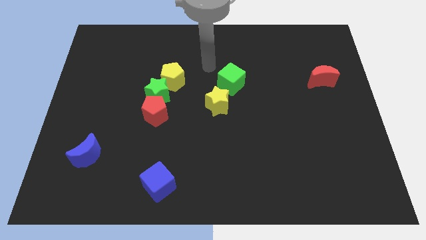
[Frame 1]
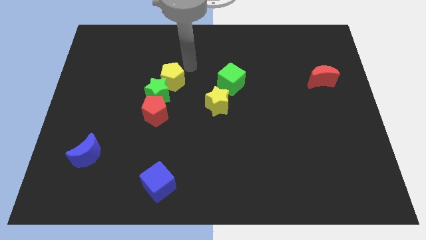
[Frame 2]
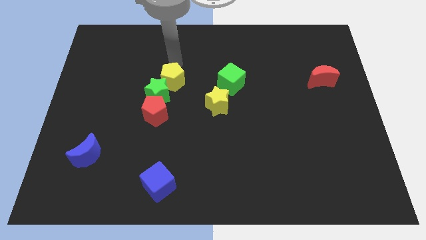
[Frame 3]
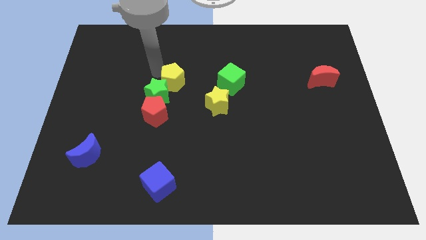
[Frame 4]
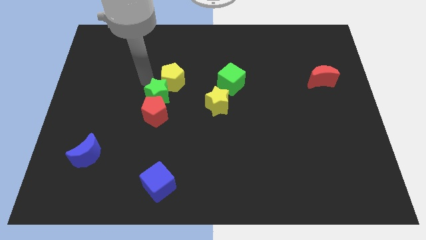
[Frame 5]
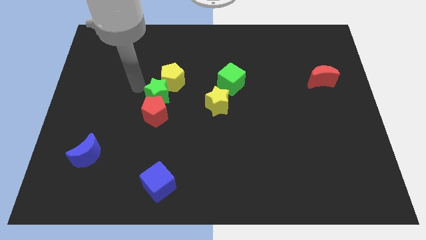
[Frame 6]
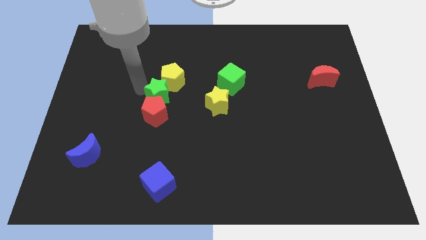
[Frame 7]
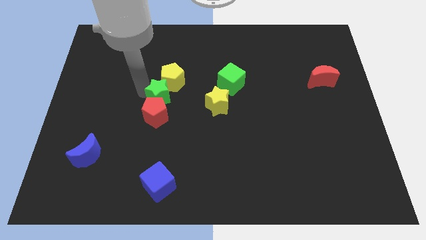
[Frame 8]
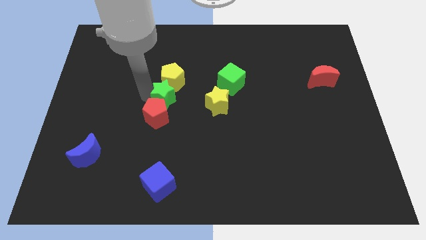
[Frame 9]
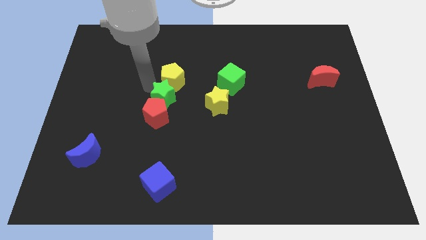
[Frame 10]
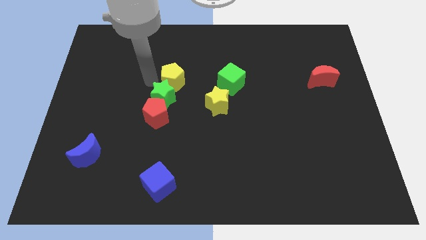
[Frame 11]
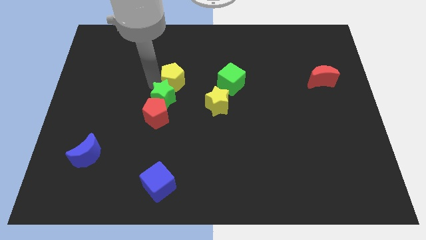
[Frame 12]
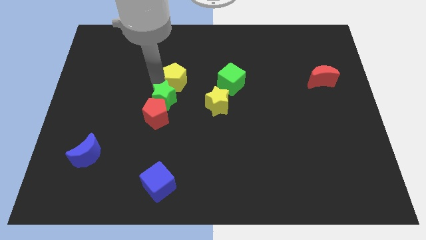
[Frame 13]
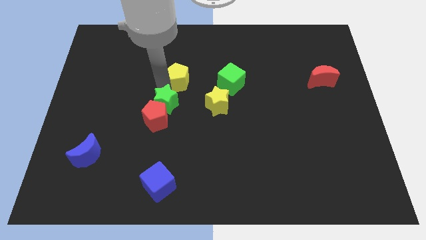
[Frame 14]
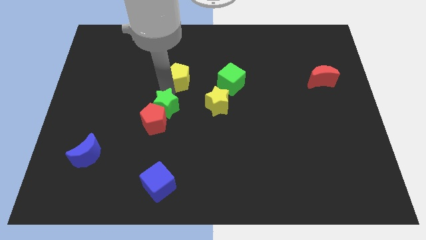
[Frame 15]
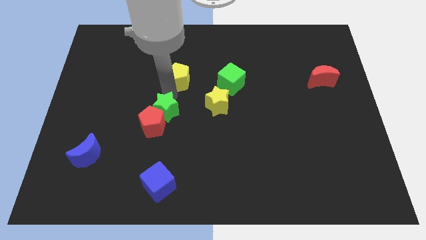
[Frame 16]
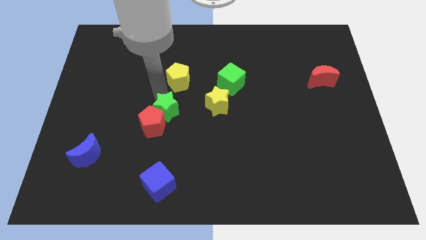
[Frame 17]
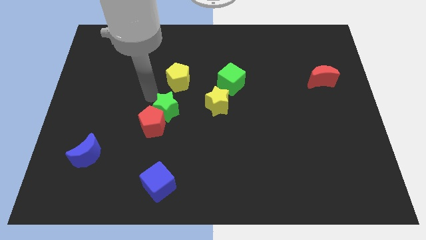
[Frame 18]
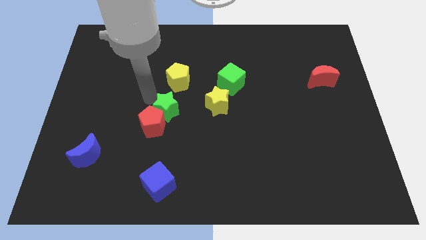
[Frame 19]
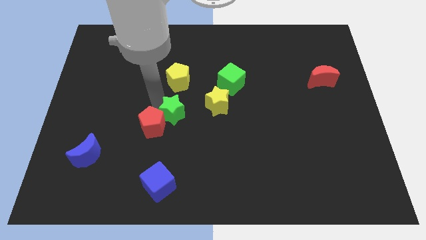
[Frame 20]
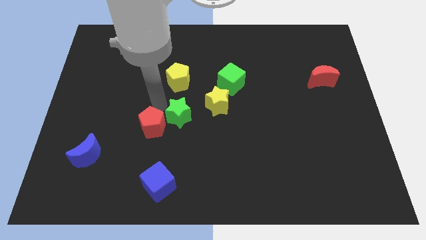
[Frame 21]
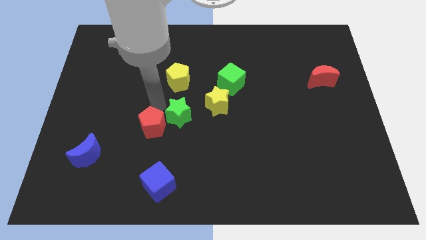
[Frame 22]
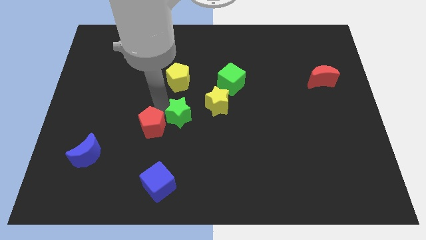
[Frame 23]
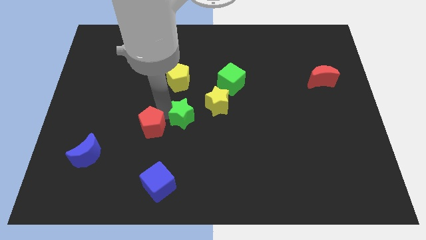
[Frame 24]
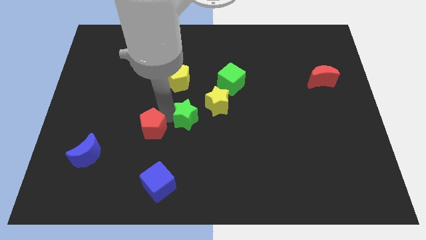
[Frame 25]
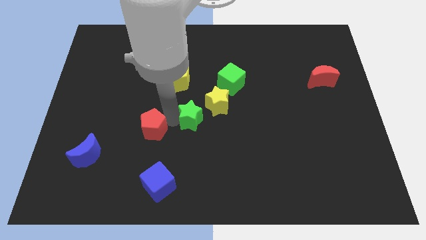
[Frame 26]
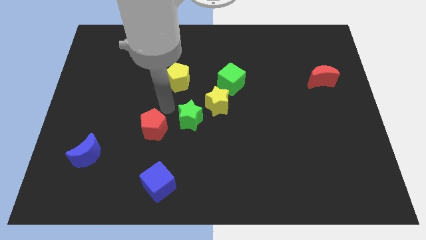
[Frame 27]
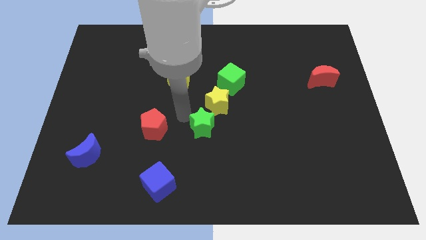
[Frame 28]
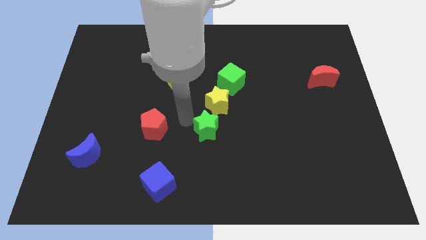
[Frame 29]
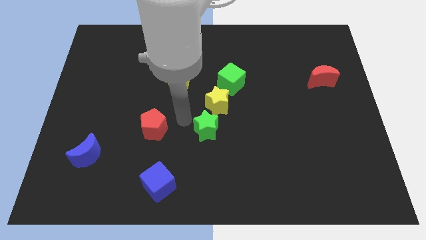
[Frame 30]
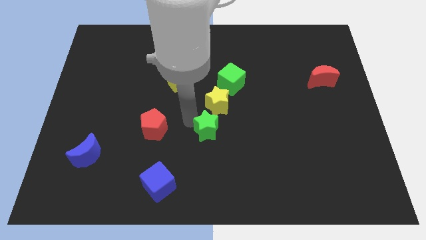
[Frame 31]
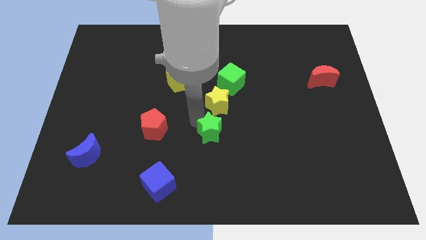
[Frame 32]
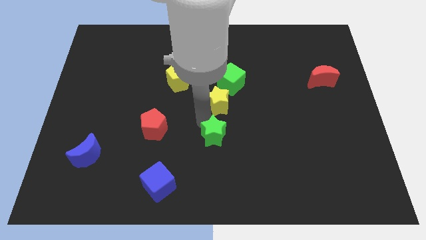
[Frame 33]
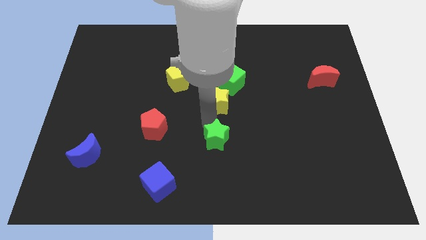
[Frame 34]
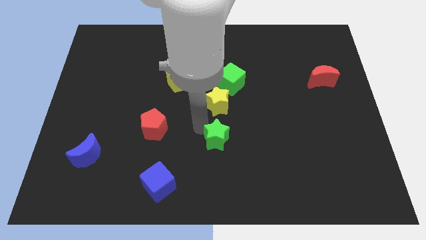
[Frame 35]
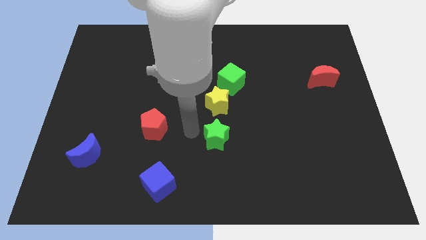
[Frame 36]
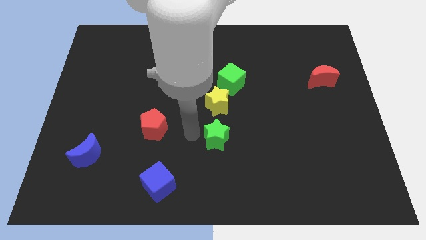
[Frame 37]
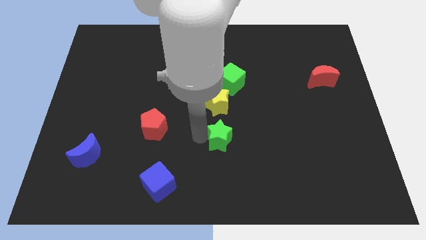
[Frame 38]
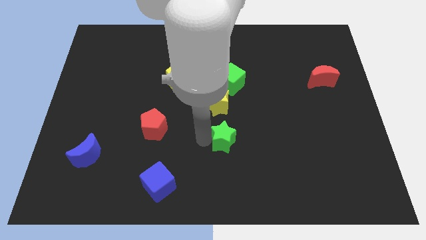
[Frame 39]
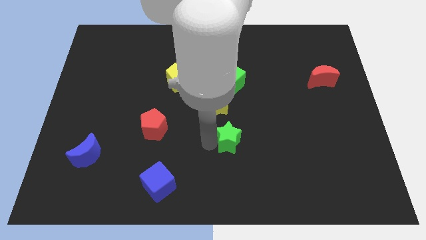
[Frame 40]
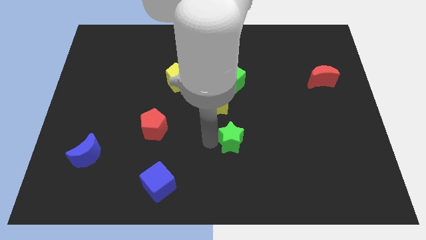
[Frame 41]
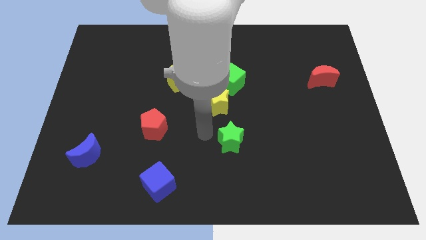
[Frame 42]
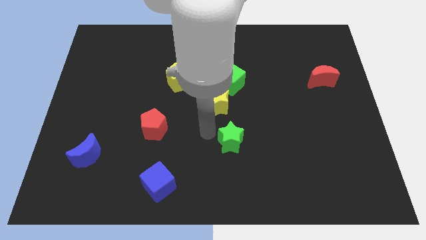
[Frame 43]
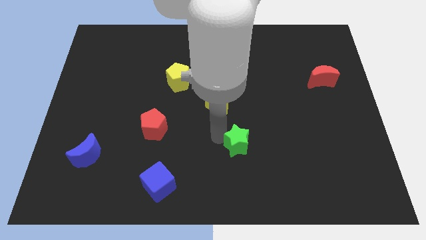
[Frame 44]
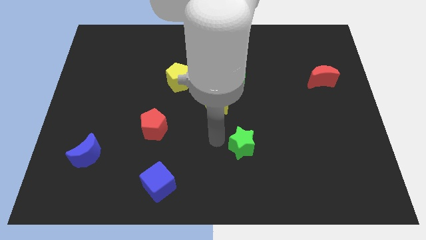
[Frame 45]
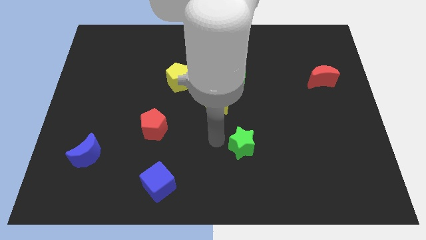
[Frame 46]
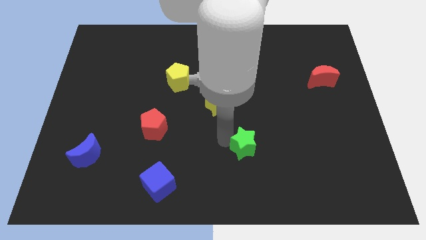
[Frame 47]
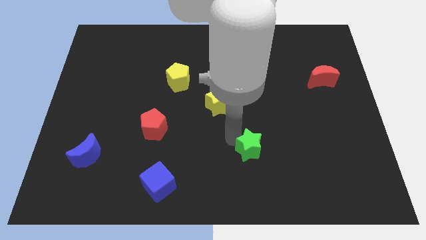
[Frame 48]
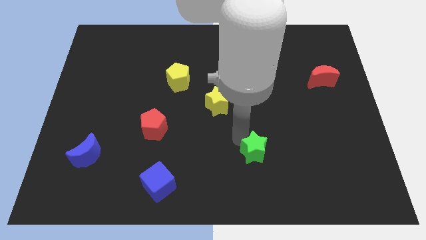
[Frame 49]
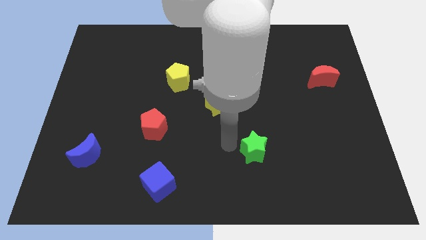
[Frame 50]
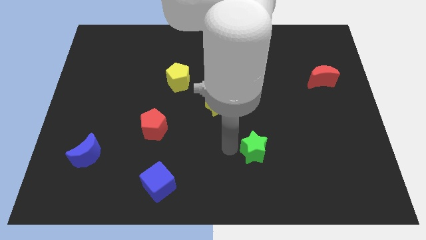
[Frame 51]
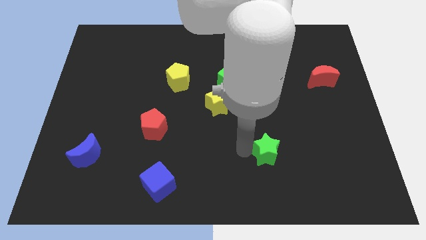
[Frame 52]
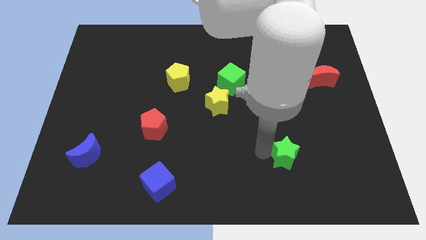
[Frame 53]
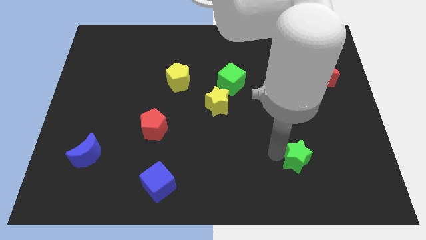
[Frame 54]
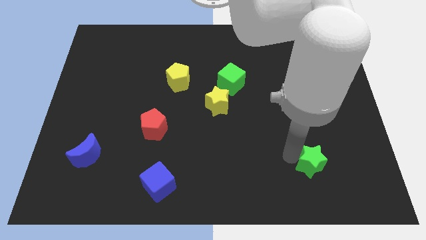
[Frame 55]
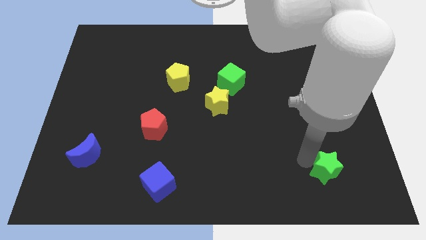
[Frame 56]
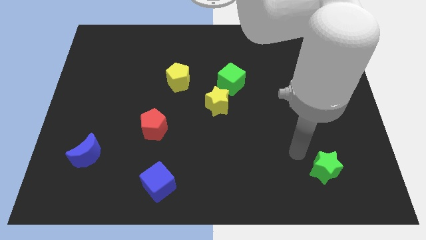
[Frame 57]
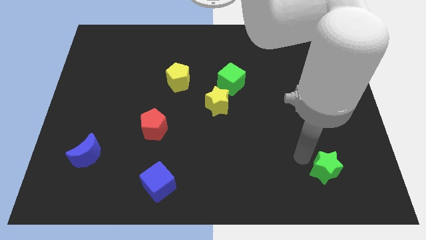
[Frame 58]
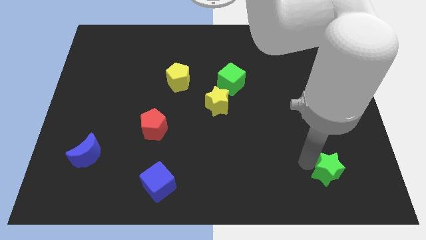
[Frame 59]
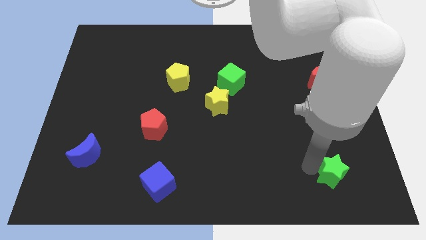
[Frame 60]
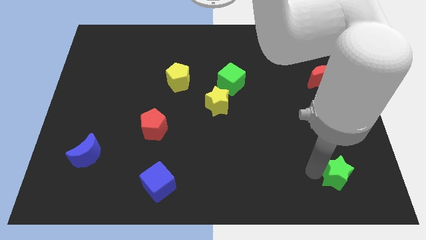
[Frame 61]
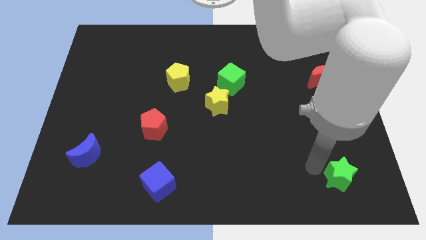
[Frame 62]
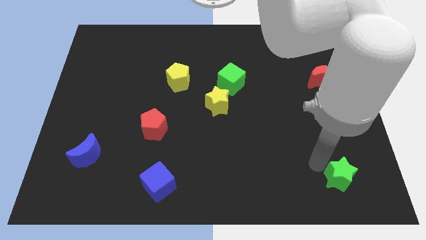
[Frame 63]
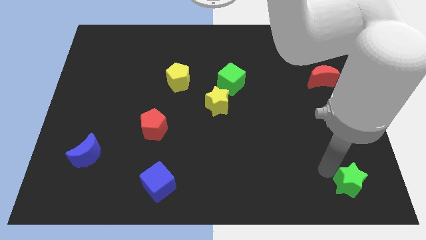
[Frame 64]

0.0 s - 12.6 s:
move the green star to the bottom right corner
